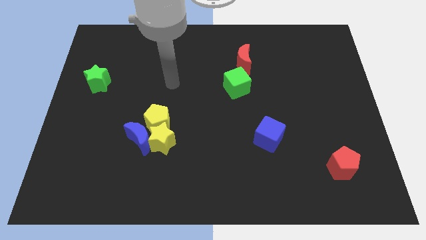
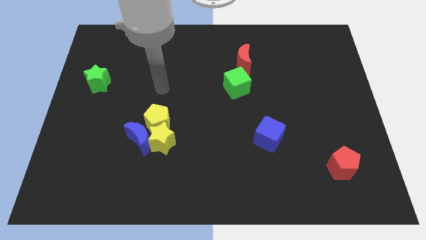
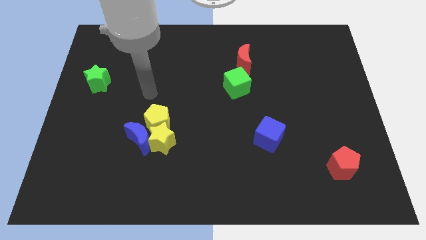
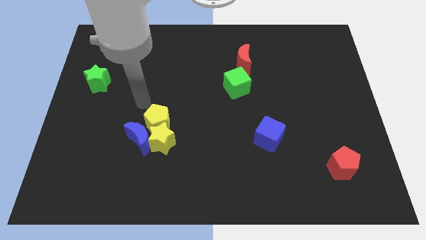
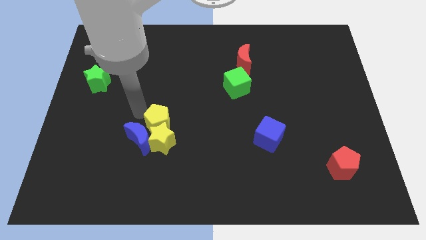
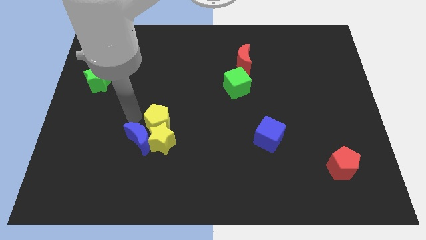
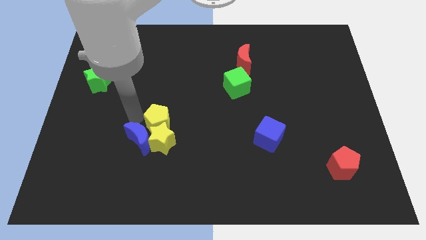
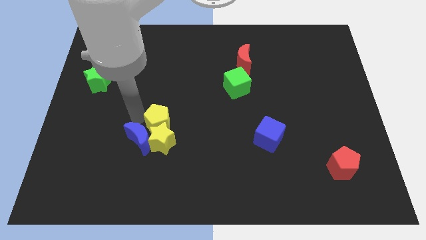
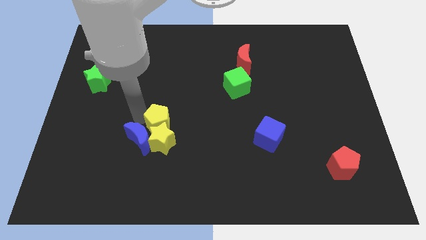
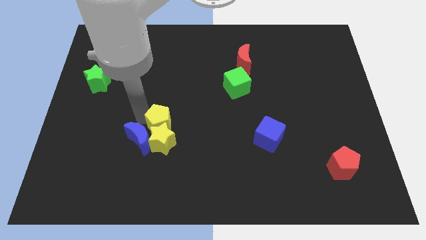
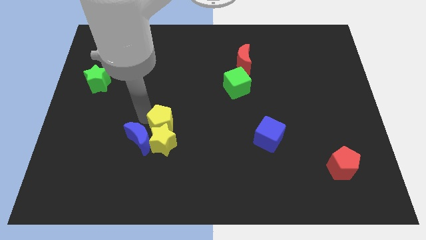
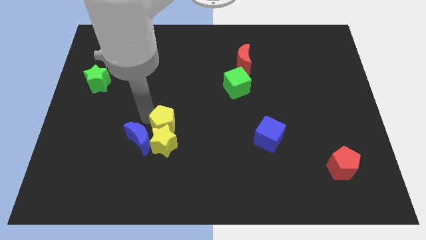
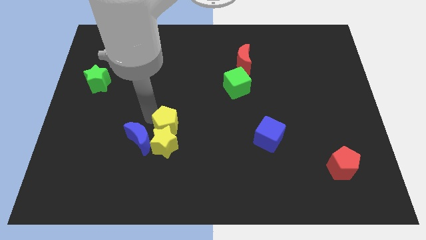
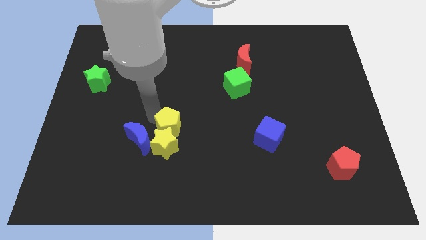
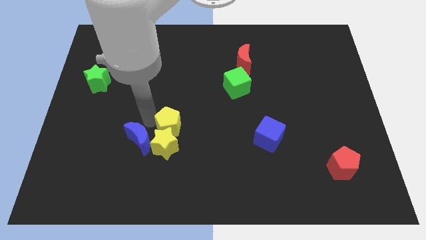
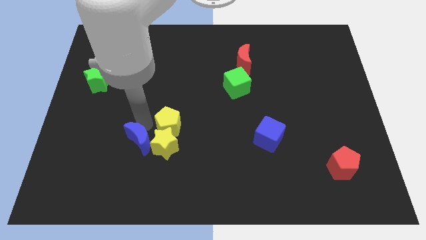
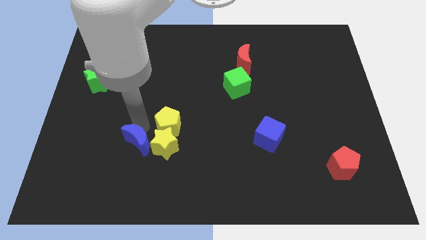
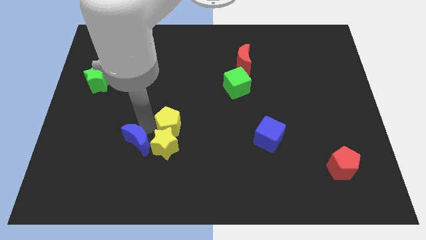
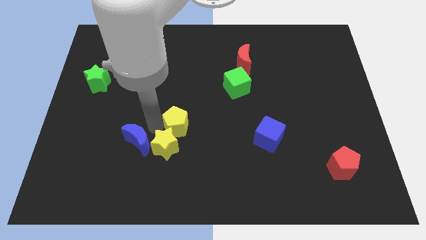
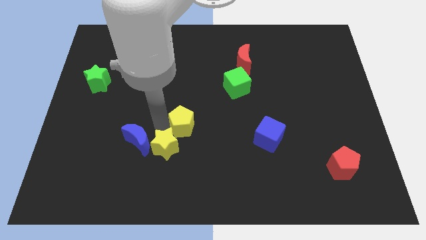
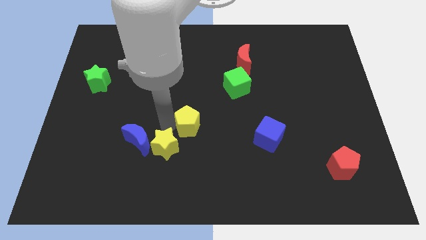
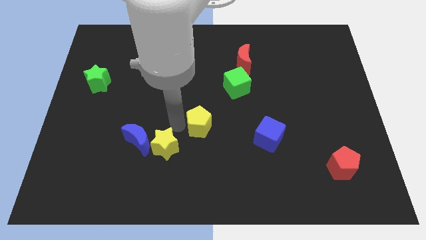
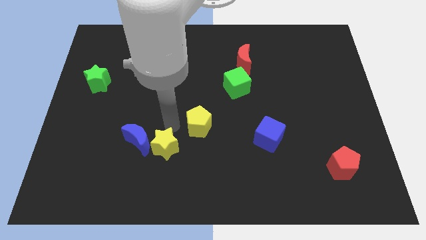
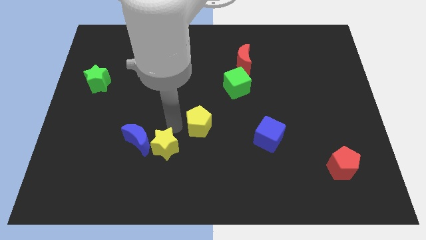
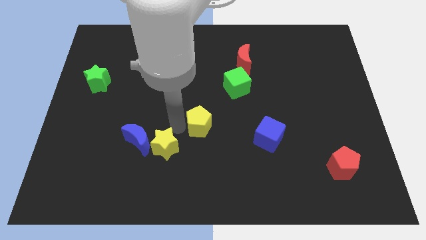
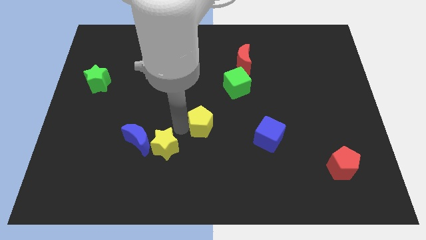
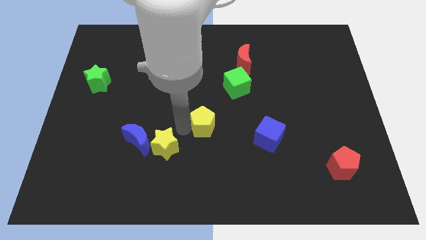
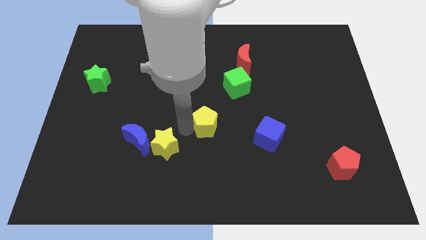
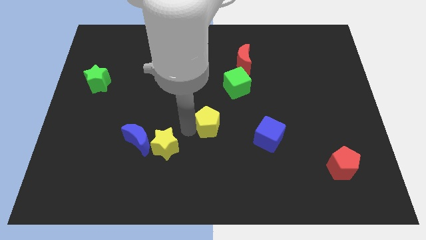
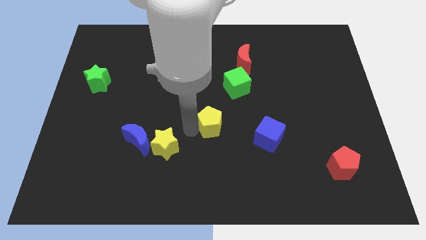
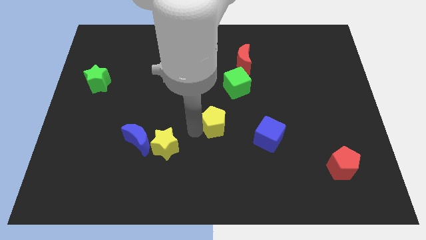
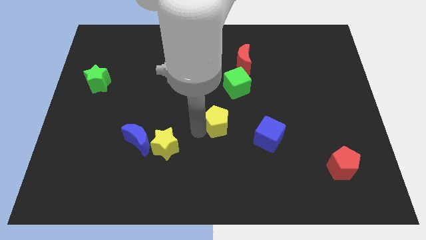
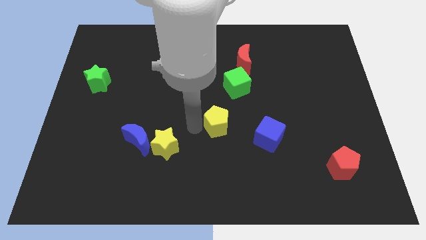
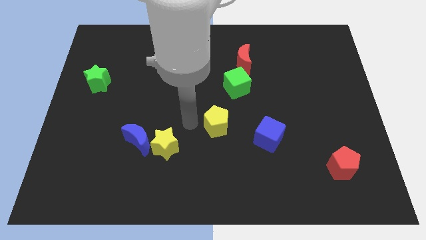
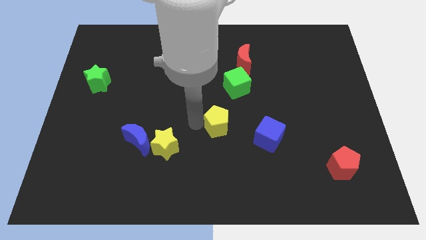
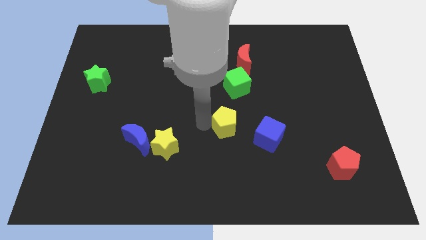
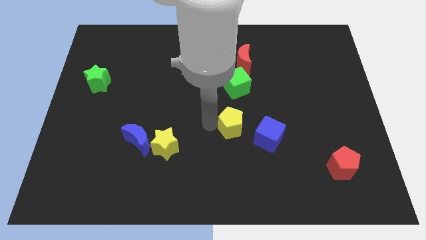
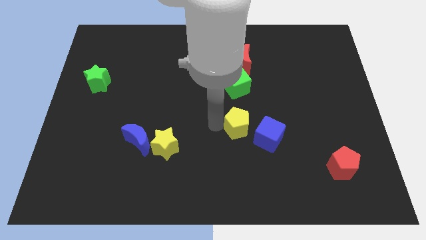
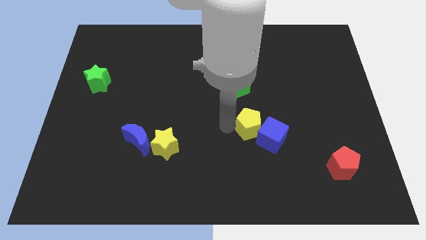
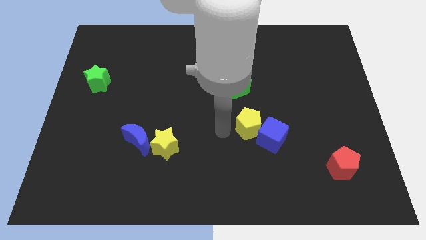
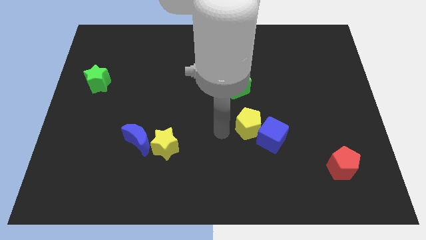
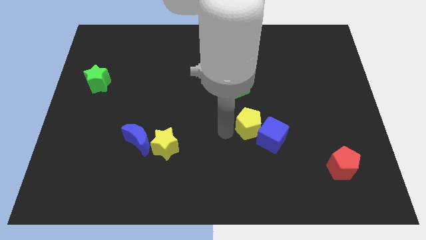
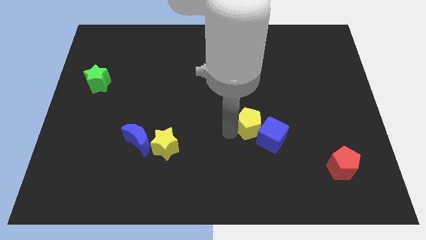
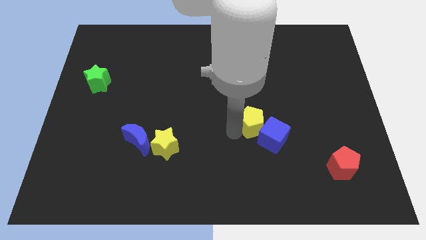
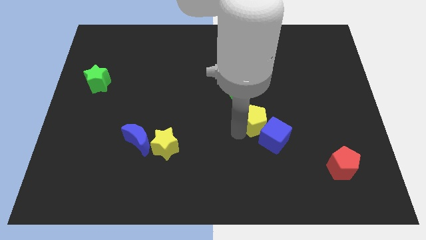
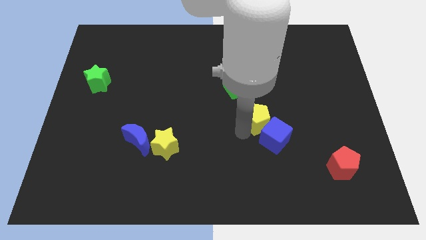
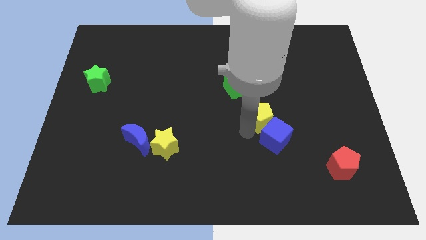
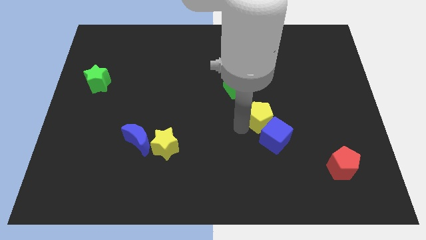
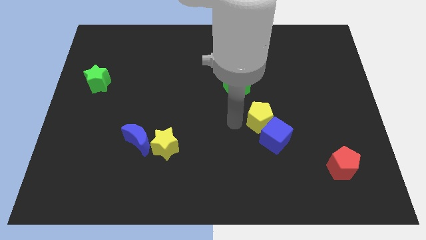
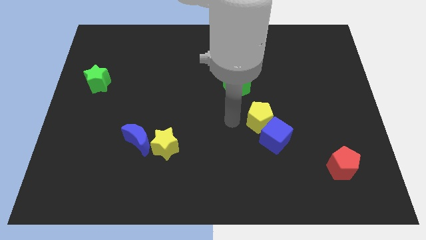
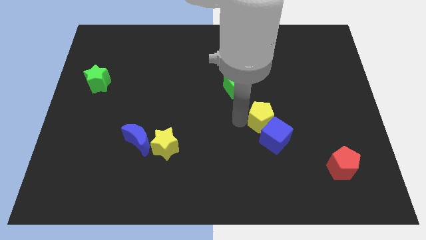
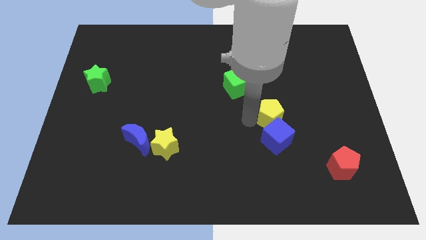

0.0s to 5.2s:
push the yellow pentagon to the top right of the blue cube

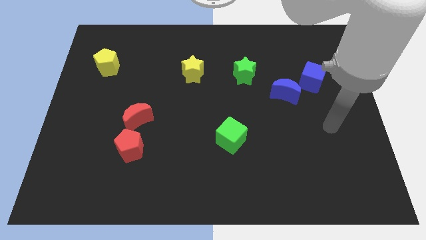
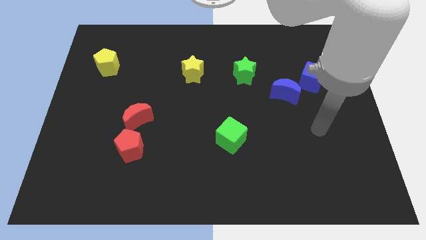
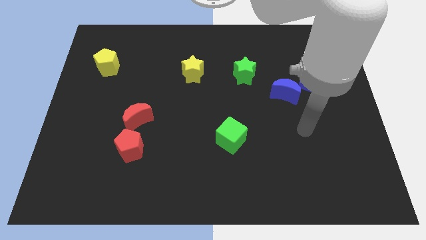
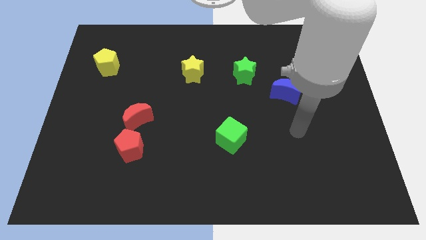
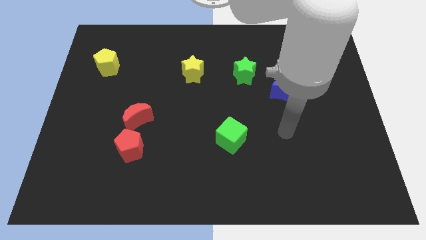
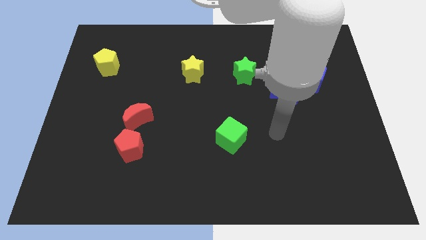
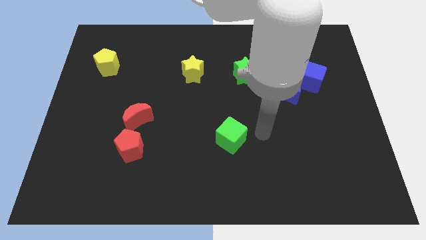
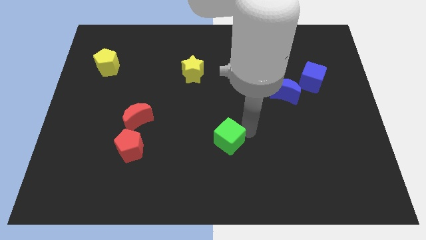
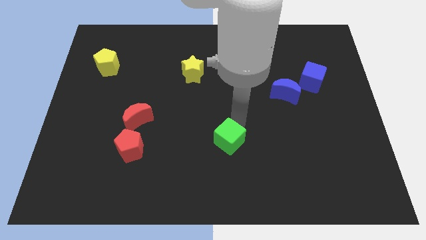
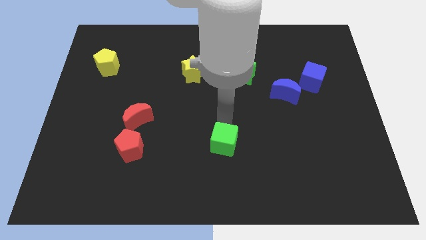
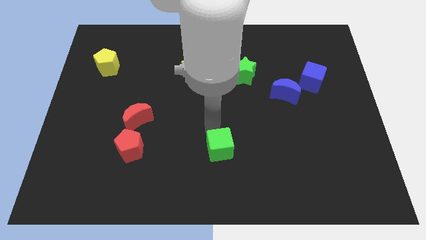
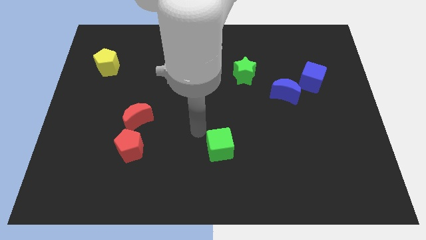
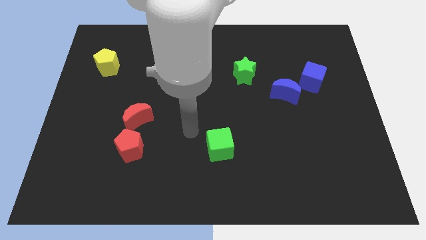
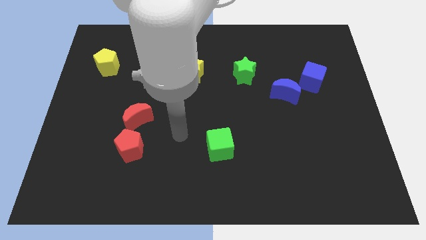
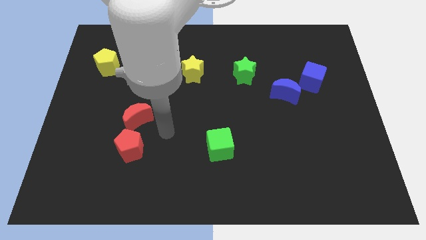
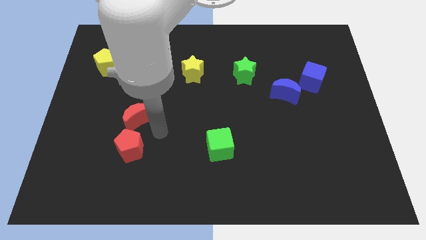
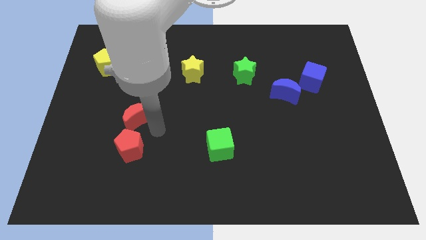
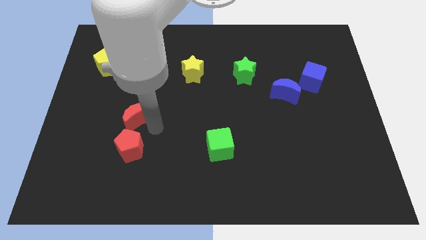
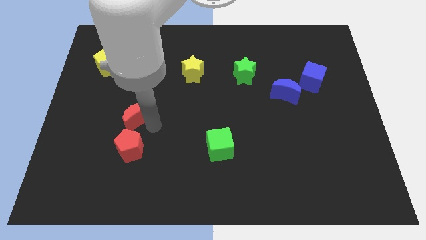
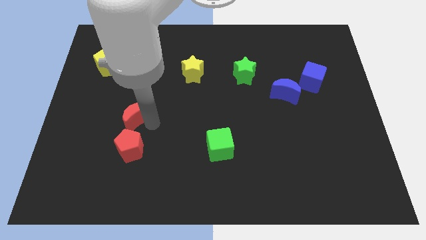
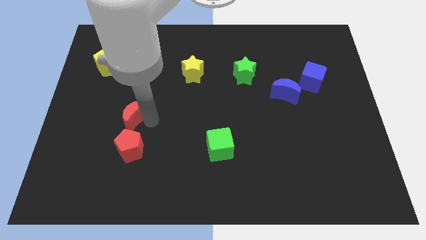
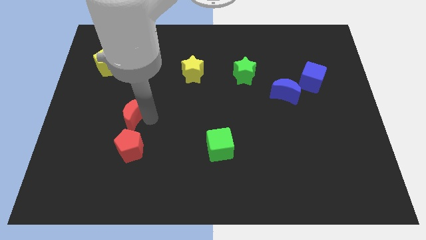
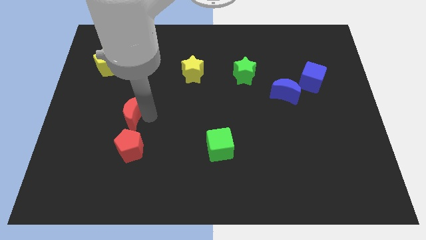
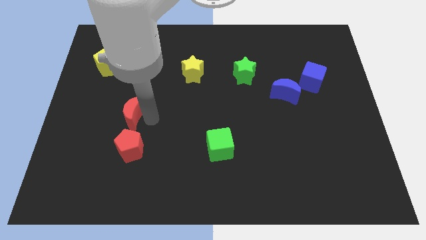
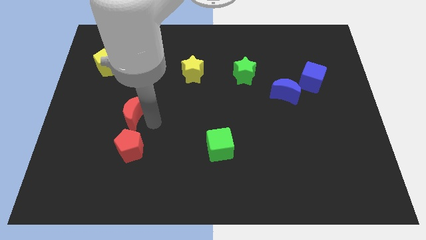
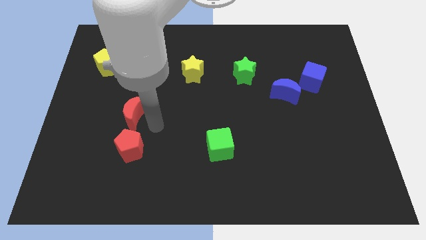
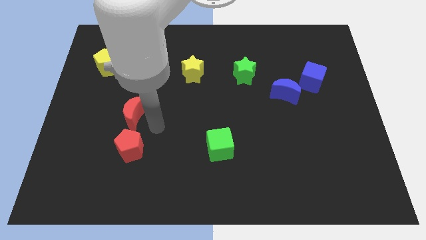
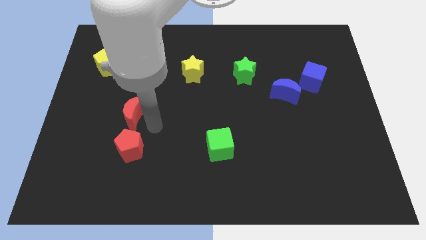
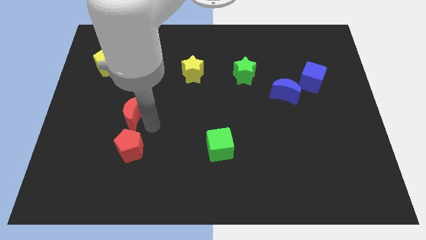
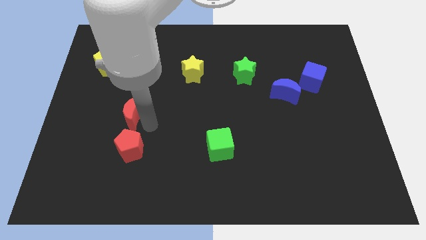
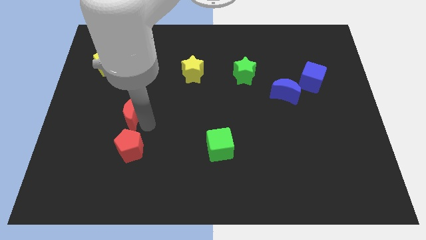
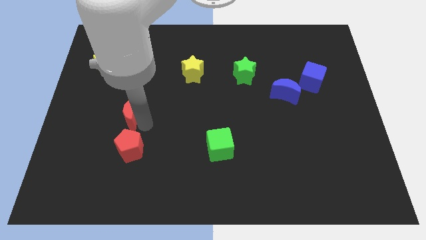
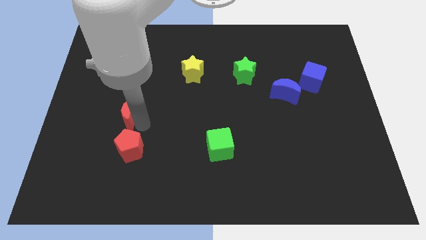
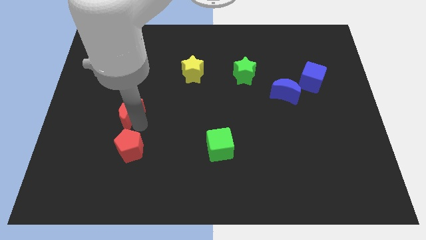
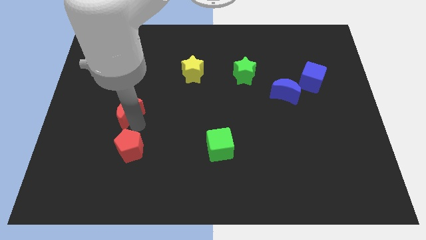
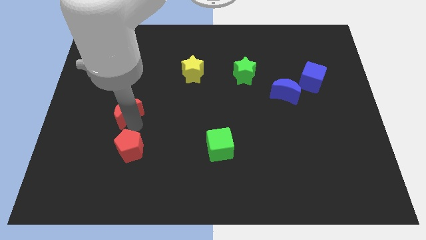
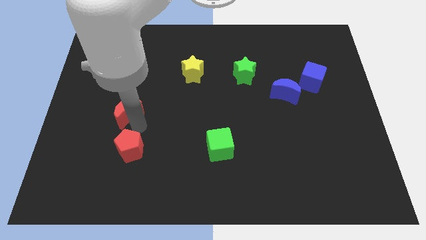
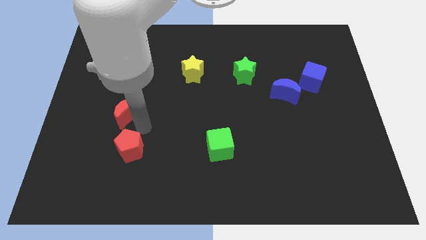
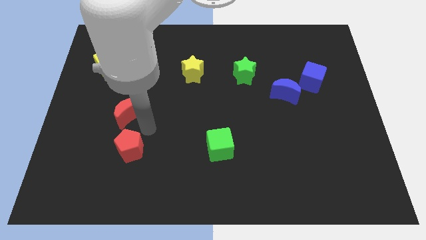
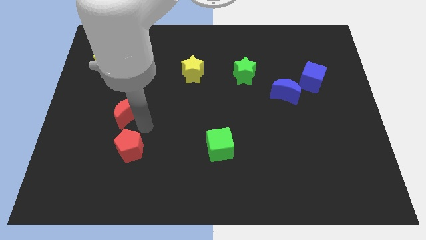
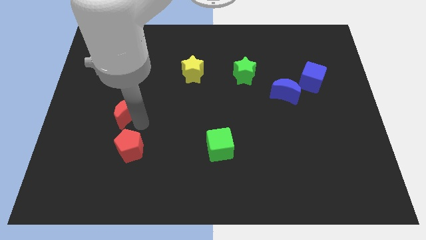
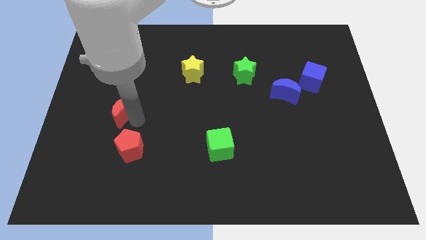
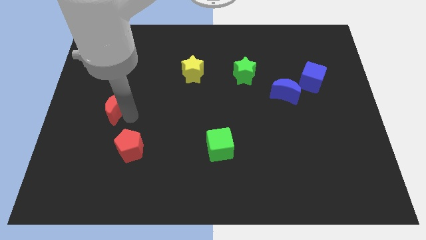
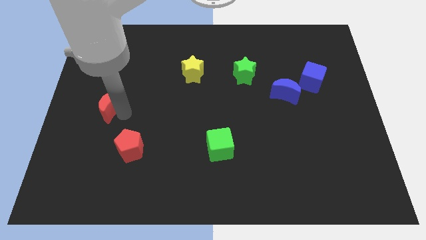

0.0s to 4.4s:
push the red moon below the yellow pentagon
